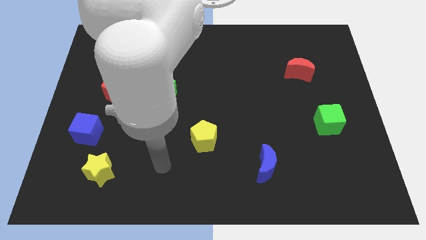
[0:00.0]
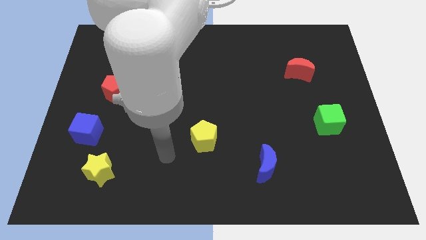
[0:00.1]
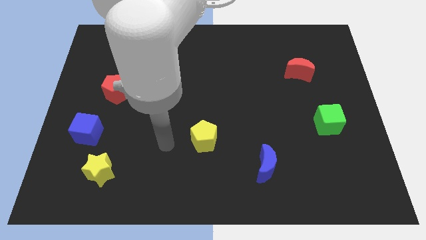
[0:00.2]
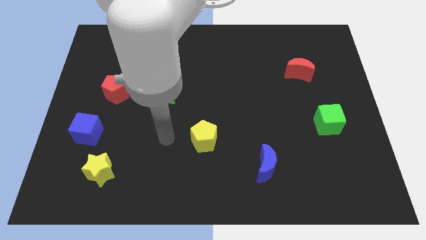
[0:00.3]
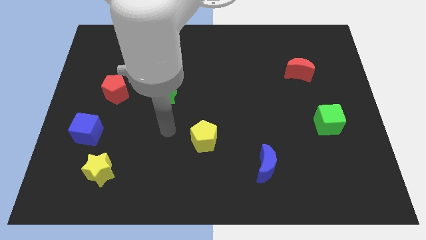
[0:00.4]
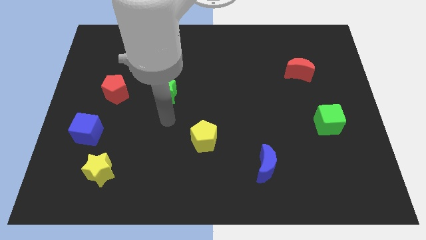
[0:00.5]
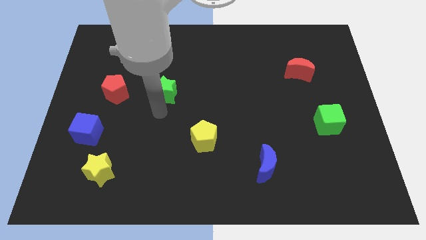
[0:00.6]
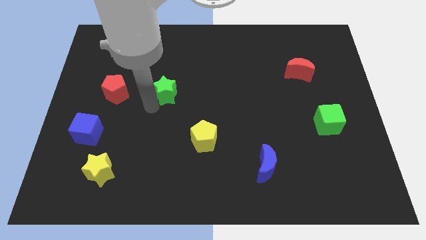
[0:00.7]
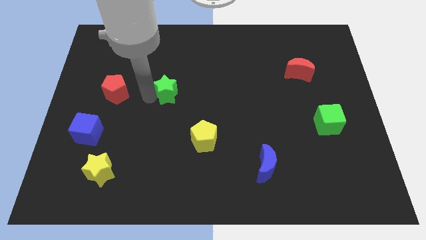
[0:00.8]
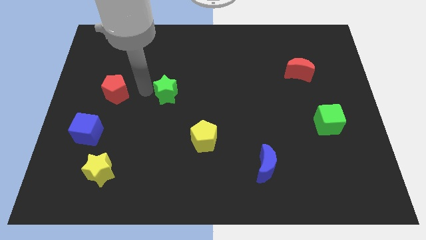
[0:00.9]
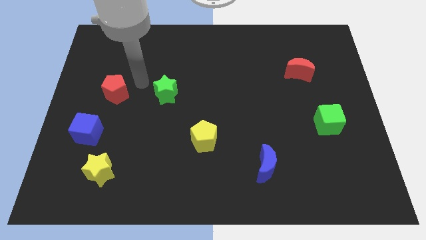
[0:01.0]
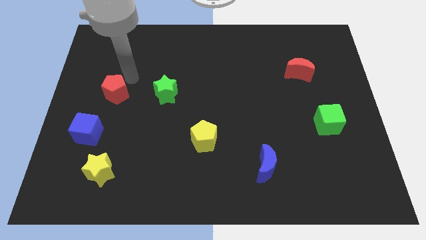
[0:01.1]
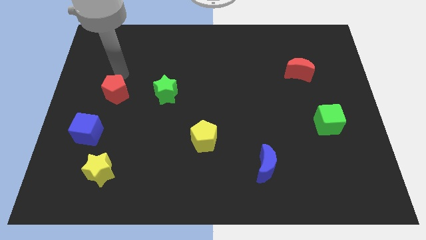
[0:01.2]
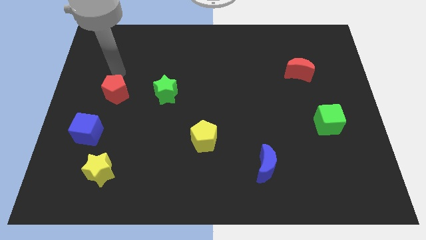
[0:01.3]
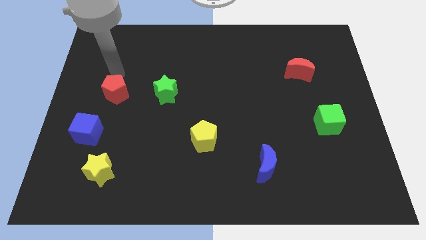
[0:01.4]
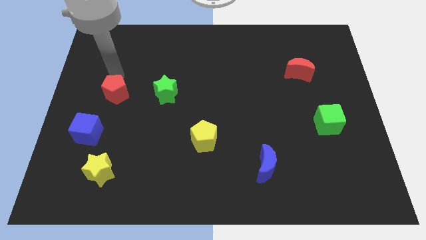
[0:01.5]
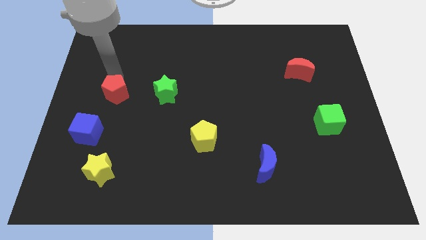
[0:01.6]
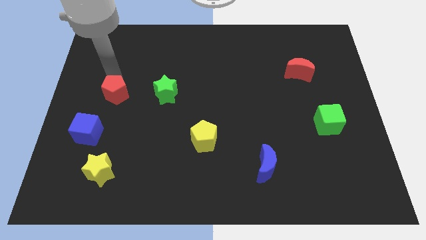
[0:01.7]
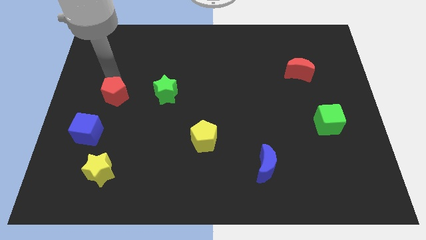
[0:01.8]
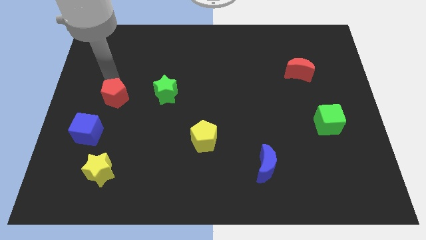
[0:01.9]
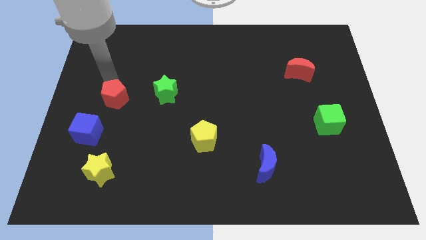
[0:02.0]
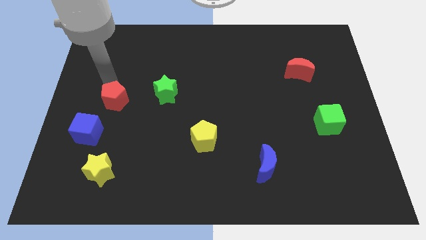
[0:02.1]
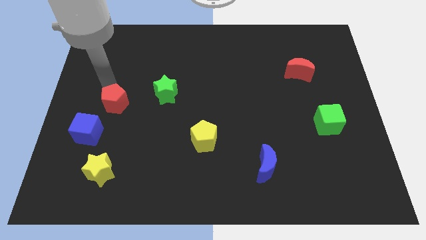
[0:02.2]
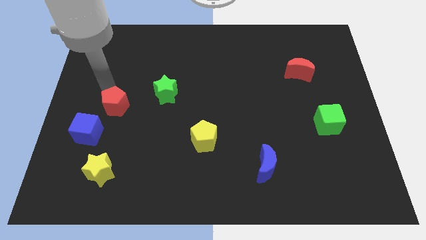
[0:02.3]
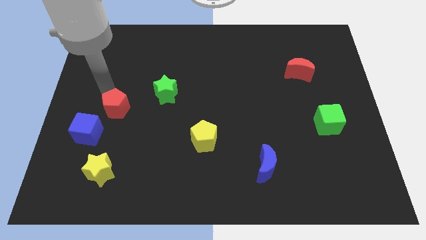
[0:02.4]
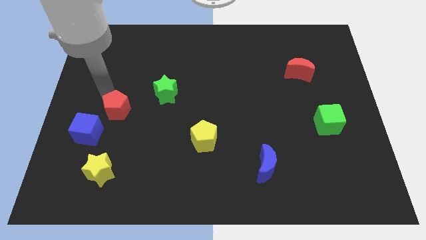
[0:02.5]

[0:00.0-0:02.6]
slide the red pentagon to the top of the yellow star

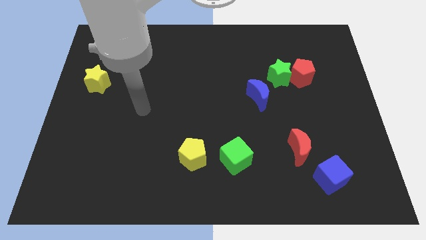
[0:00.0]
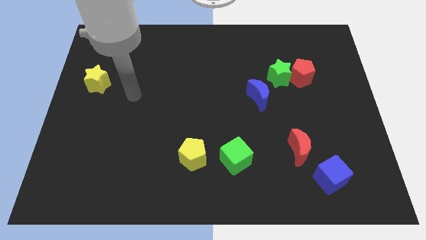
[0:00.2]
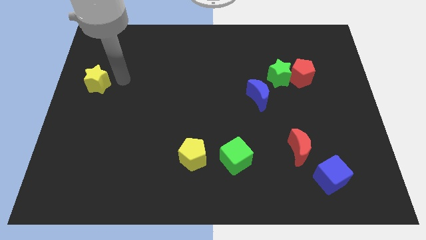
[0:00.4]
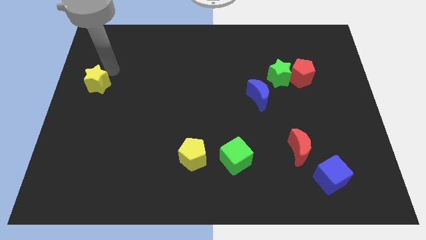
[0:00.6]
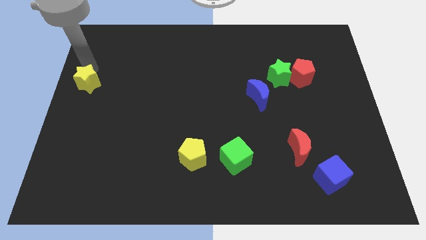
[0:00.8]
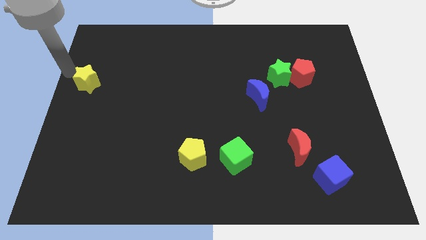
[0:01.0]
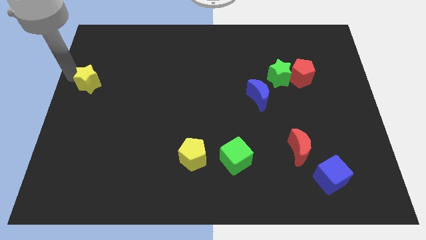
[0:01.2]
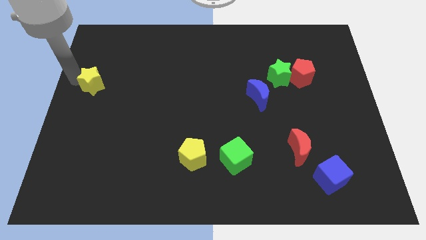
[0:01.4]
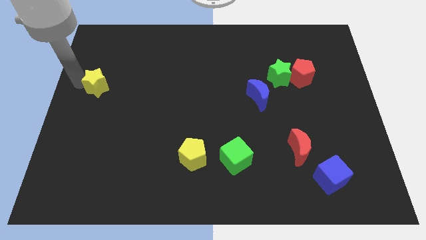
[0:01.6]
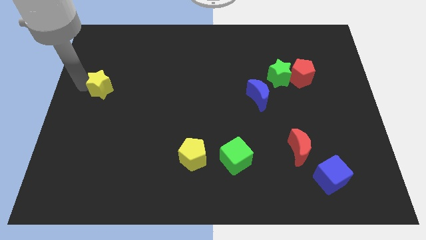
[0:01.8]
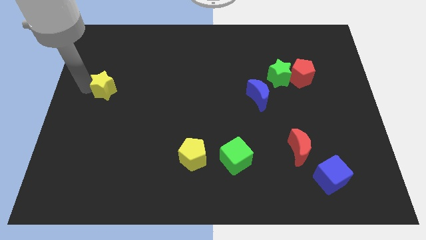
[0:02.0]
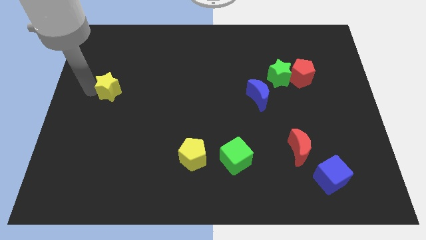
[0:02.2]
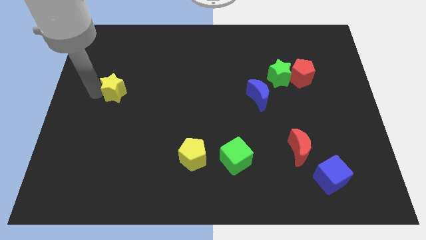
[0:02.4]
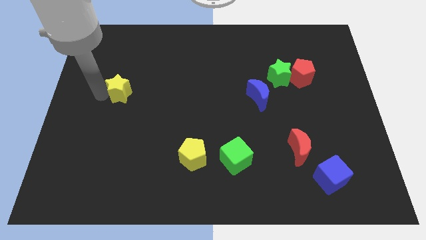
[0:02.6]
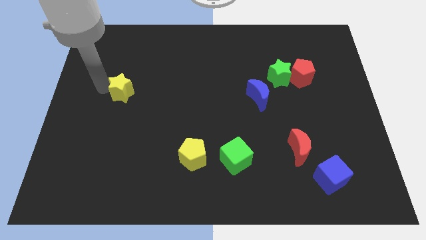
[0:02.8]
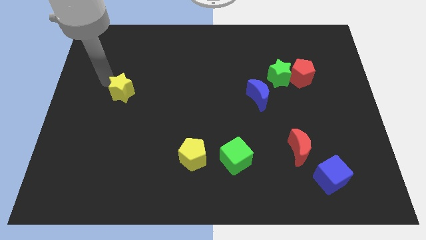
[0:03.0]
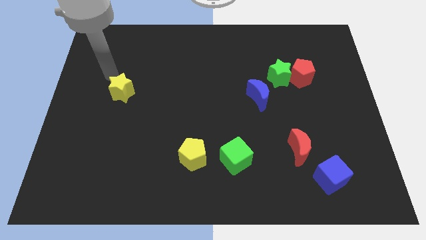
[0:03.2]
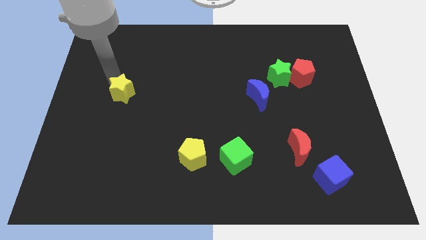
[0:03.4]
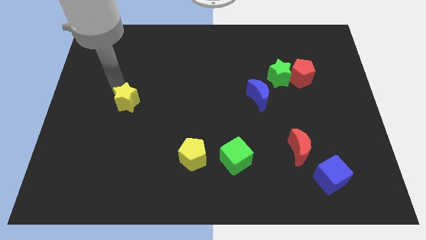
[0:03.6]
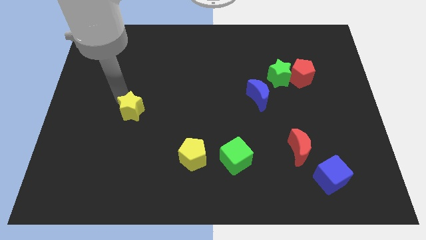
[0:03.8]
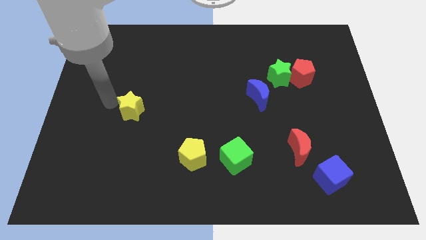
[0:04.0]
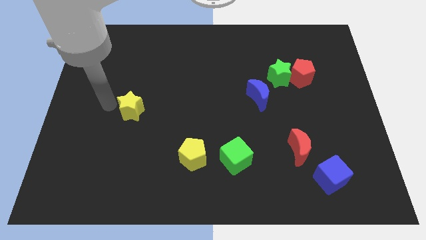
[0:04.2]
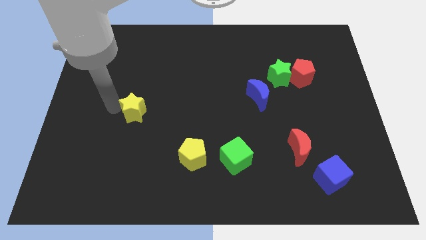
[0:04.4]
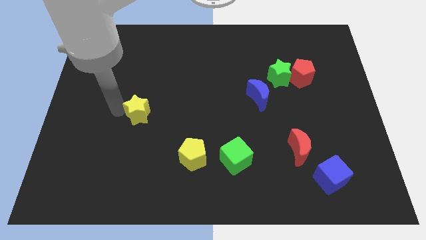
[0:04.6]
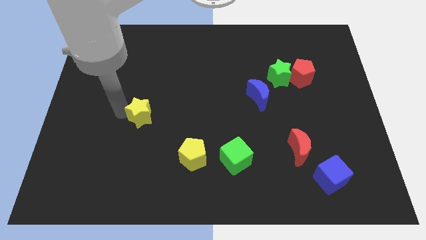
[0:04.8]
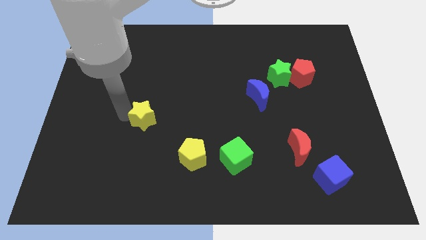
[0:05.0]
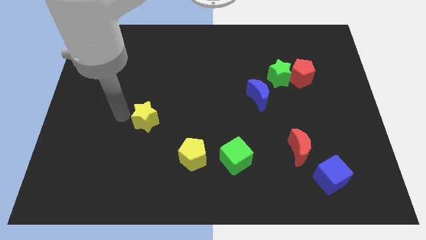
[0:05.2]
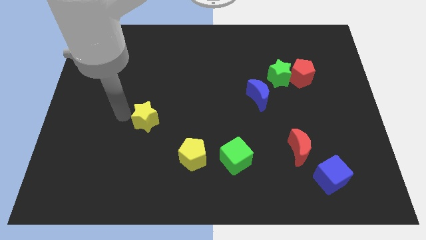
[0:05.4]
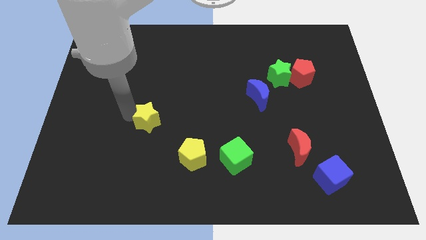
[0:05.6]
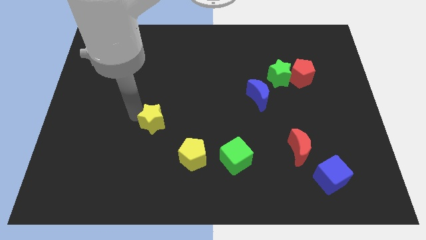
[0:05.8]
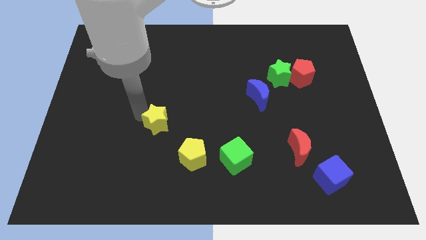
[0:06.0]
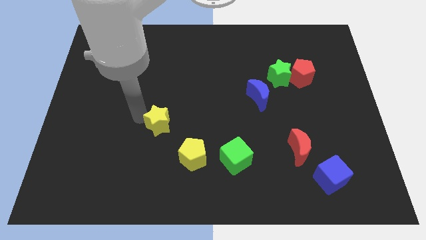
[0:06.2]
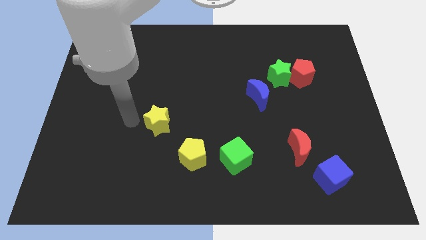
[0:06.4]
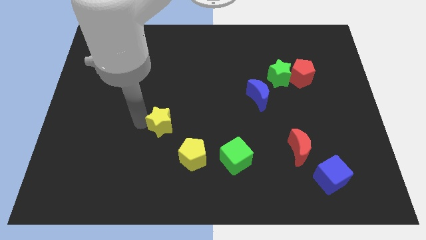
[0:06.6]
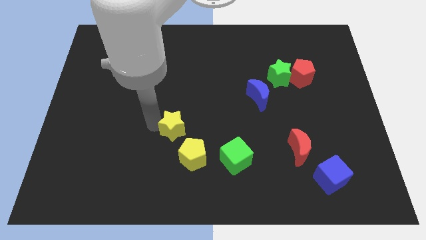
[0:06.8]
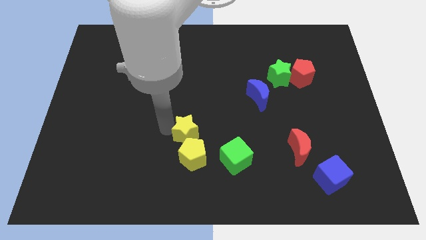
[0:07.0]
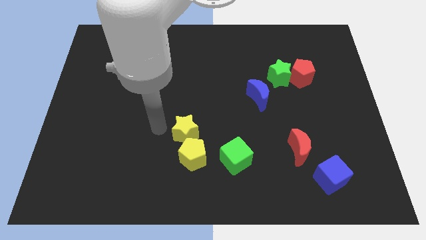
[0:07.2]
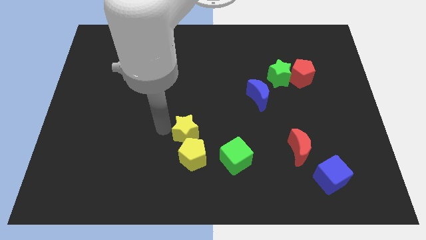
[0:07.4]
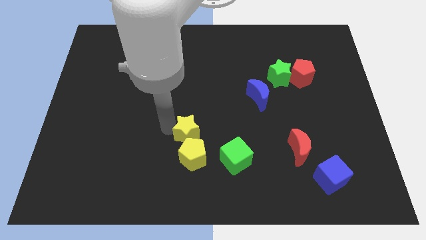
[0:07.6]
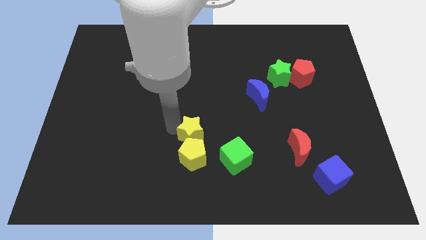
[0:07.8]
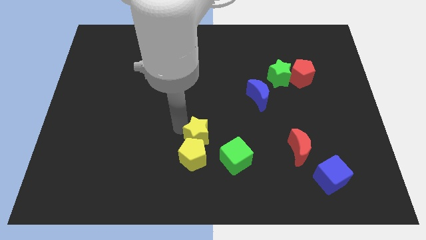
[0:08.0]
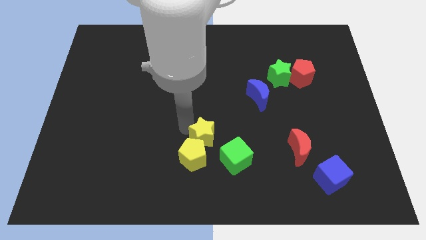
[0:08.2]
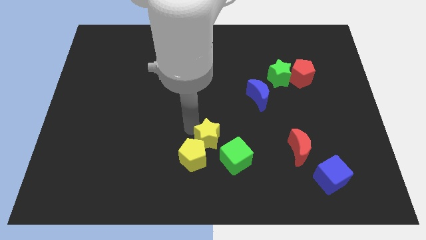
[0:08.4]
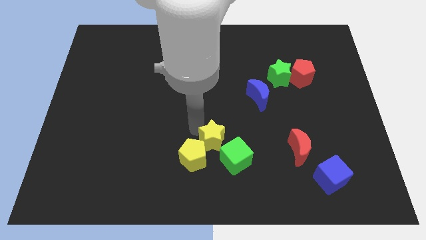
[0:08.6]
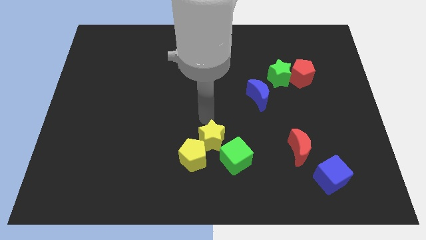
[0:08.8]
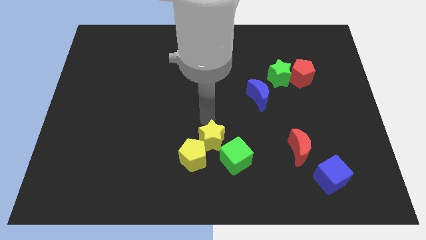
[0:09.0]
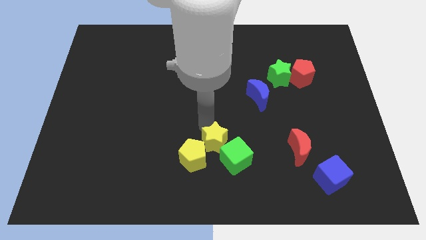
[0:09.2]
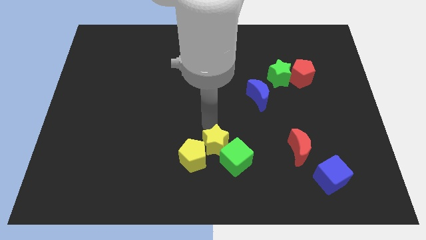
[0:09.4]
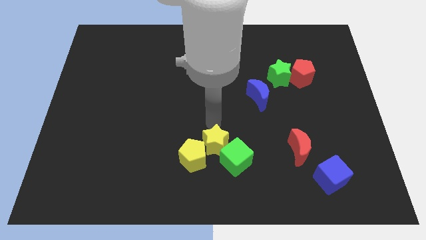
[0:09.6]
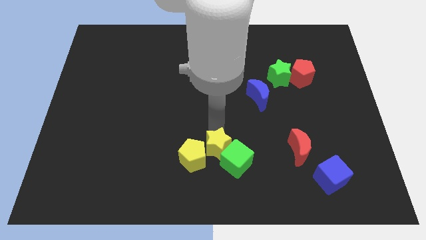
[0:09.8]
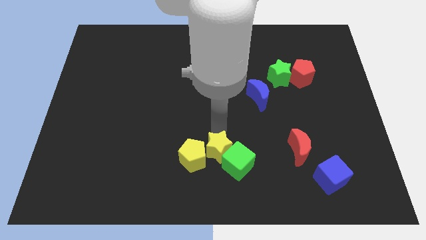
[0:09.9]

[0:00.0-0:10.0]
slide the yellow star to the bottom right side of the yellow pentagon

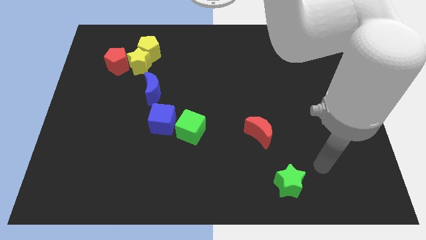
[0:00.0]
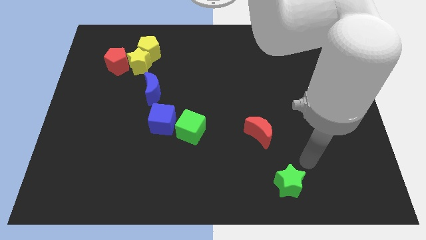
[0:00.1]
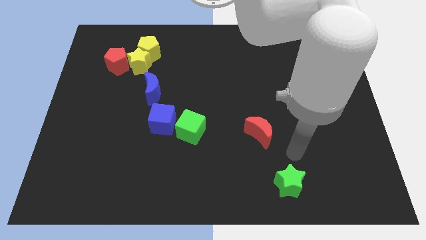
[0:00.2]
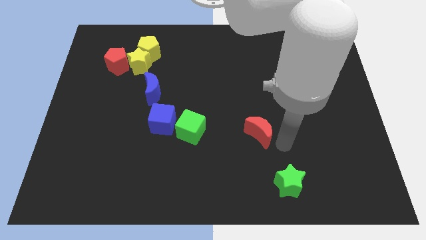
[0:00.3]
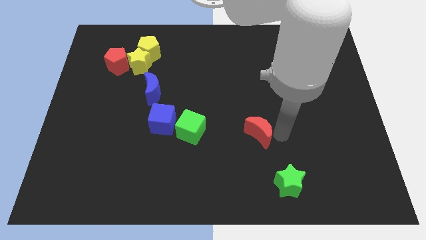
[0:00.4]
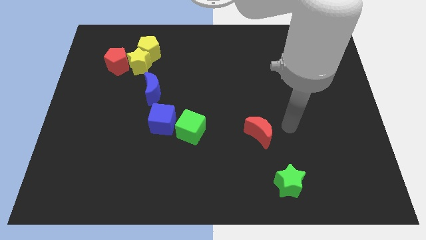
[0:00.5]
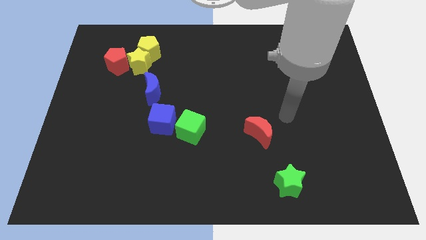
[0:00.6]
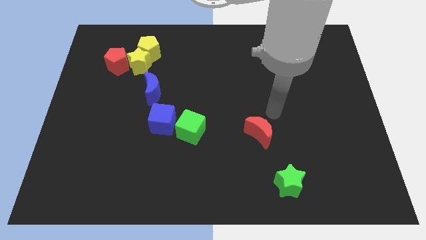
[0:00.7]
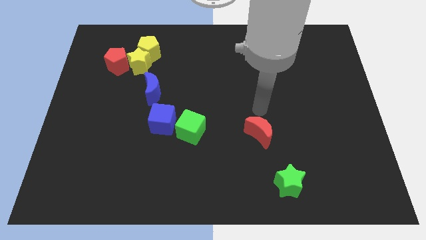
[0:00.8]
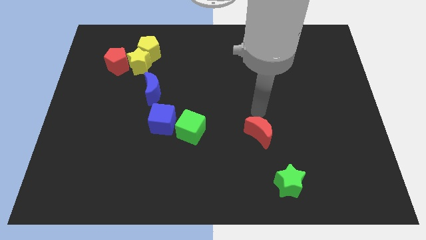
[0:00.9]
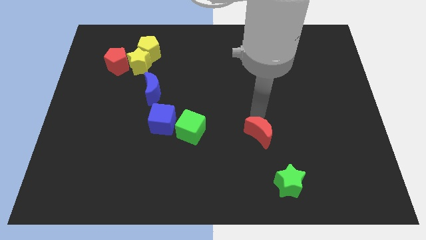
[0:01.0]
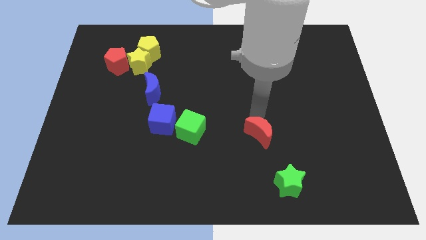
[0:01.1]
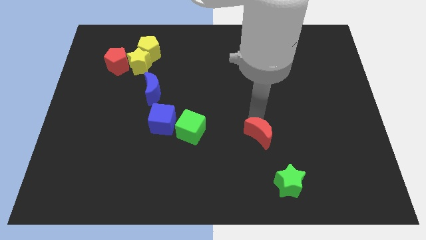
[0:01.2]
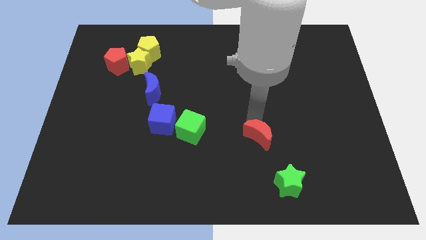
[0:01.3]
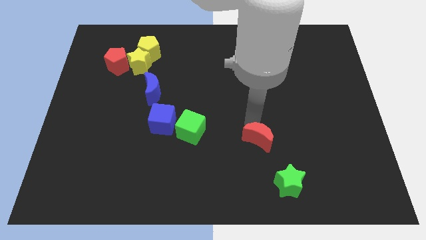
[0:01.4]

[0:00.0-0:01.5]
push the red moon to the top left side of the green star
